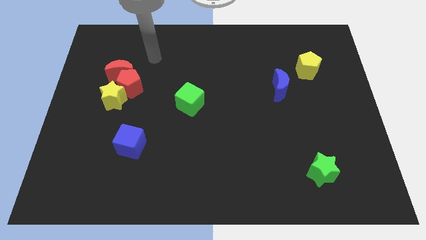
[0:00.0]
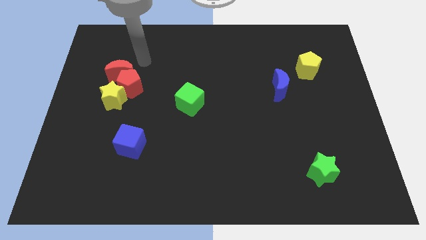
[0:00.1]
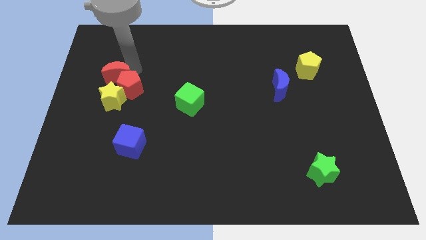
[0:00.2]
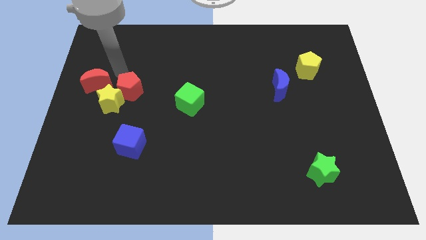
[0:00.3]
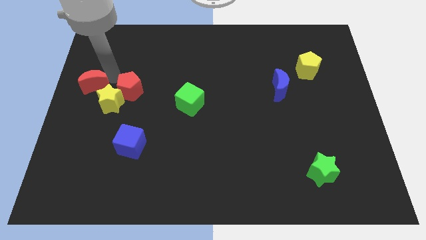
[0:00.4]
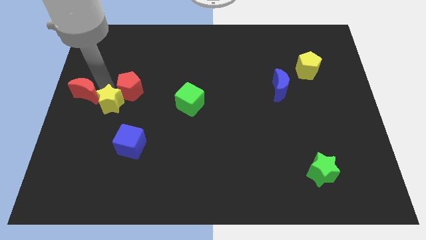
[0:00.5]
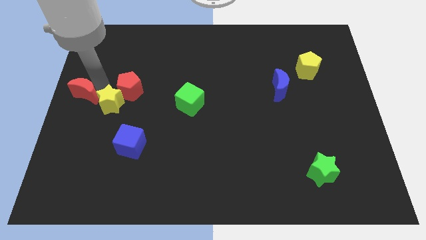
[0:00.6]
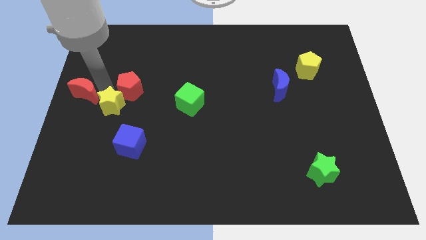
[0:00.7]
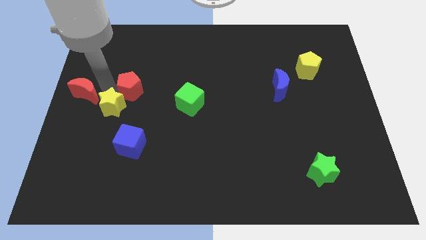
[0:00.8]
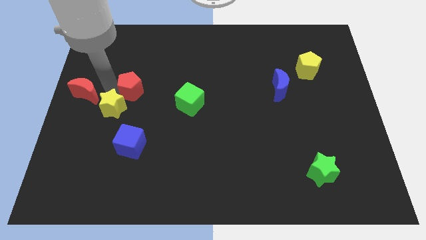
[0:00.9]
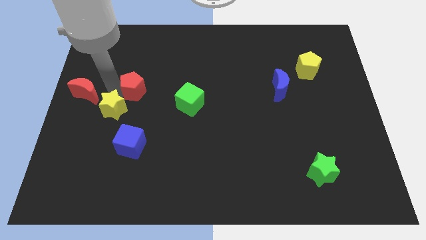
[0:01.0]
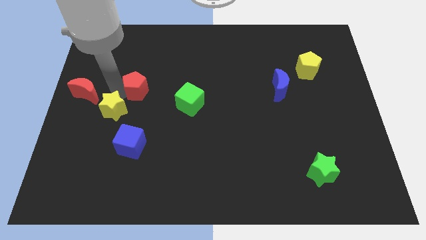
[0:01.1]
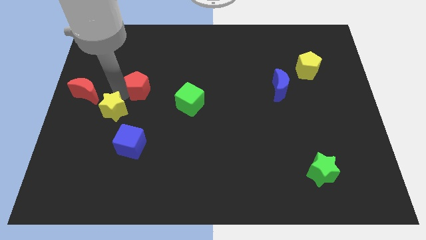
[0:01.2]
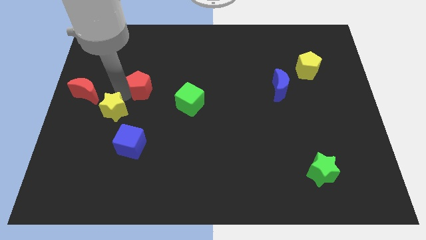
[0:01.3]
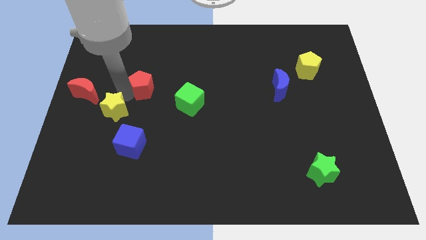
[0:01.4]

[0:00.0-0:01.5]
separate the red pentagon from the red moon and yellow star

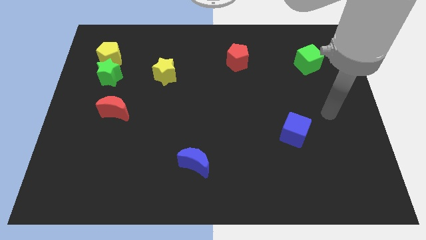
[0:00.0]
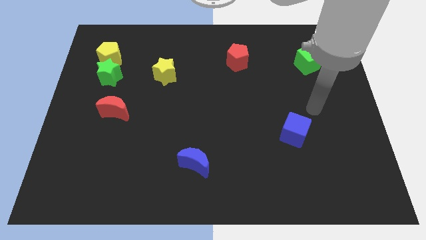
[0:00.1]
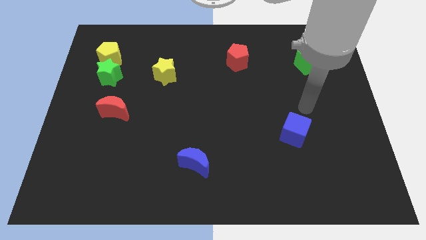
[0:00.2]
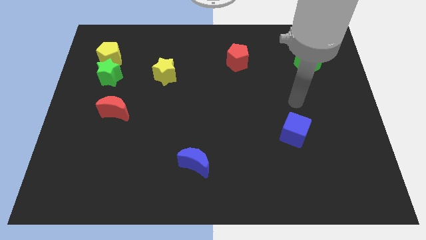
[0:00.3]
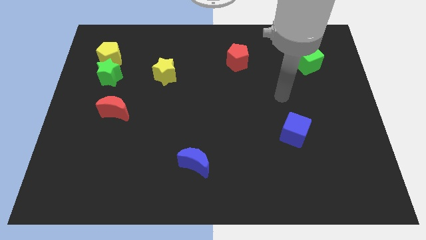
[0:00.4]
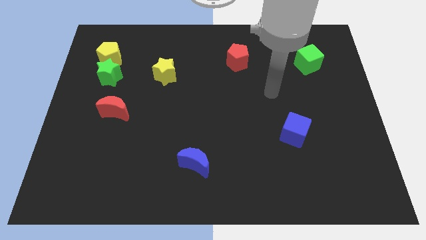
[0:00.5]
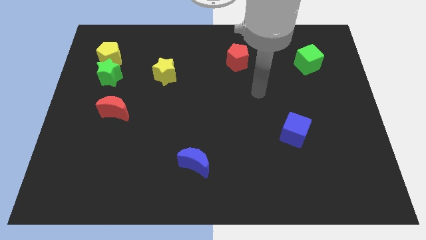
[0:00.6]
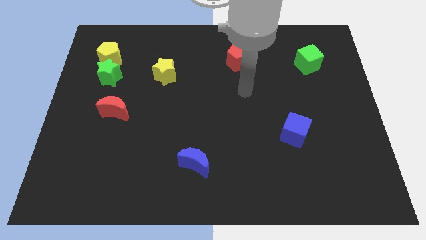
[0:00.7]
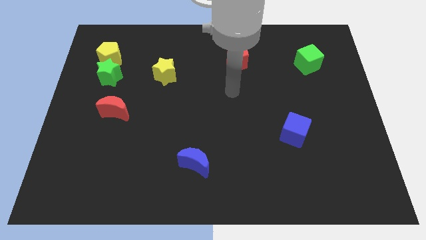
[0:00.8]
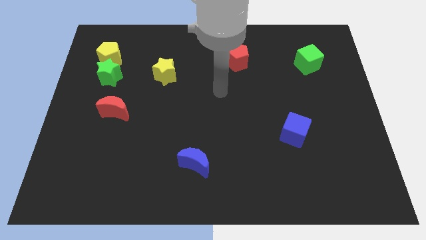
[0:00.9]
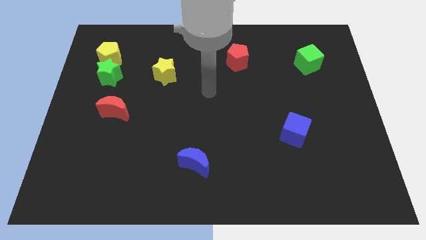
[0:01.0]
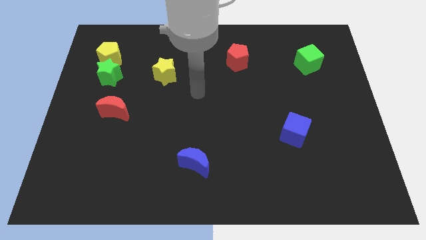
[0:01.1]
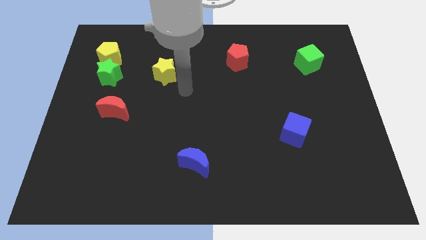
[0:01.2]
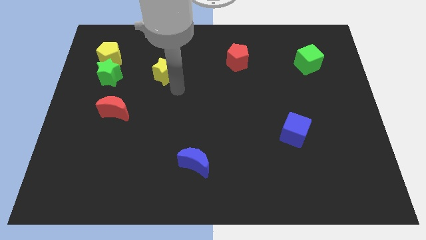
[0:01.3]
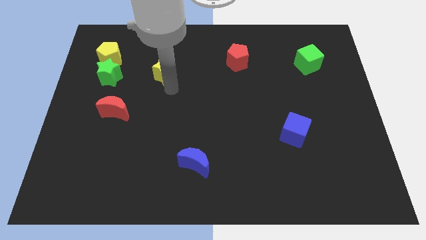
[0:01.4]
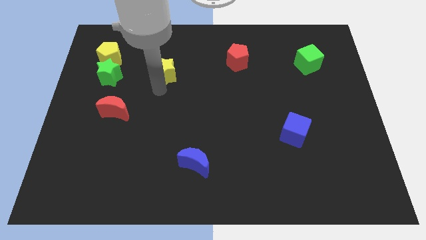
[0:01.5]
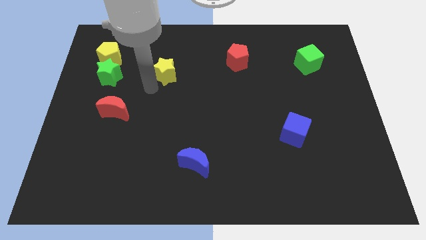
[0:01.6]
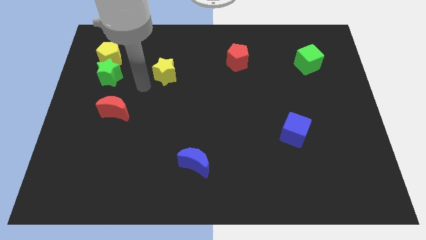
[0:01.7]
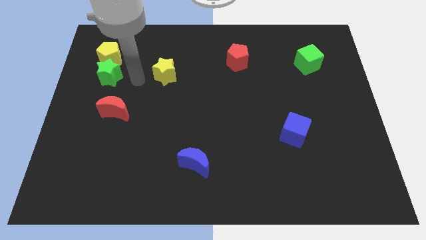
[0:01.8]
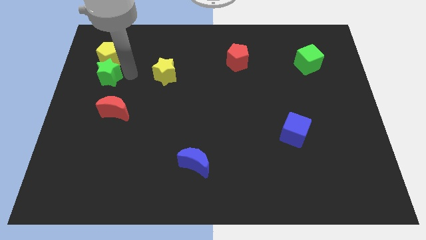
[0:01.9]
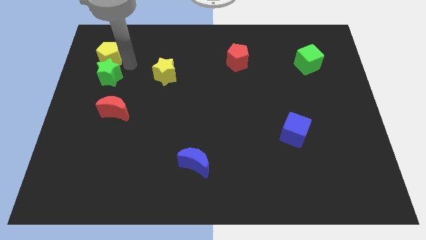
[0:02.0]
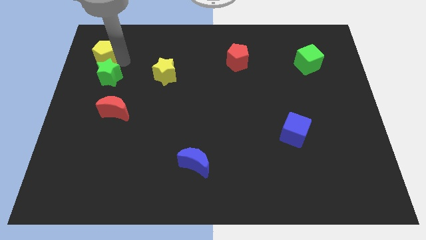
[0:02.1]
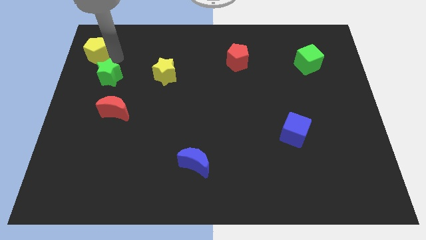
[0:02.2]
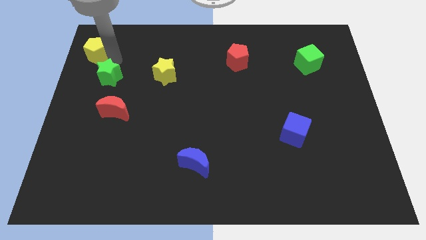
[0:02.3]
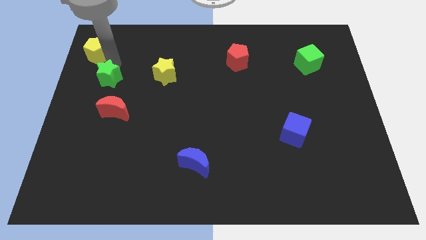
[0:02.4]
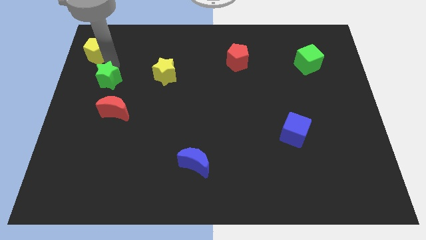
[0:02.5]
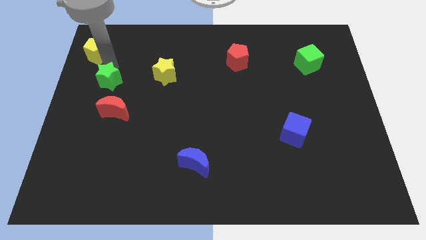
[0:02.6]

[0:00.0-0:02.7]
pull the green star apart from the yellow pentagon

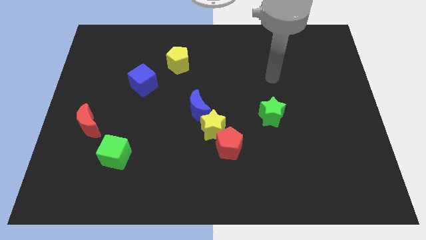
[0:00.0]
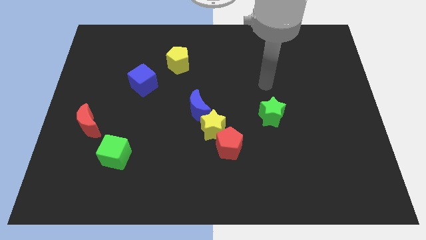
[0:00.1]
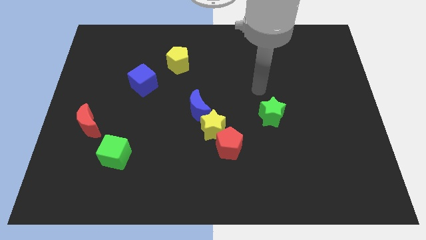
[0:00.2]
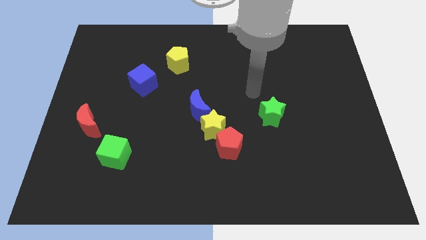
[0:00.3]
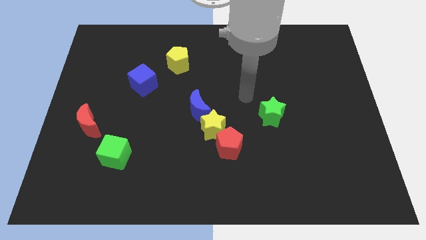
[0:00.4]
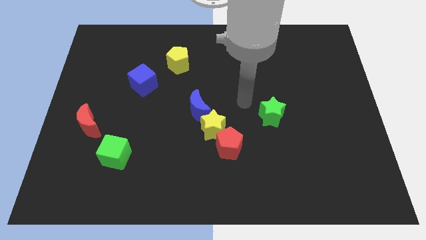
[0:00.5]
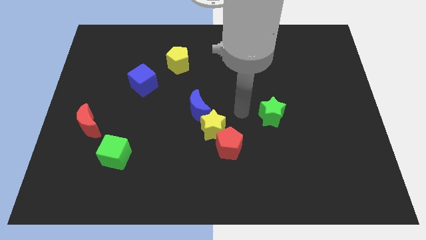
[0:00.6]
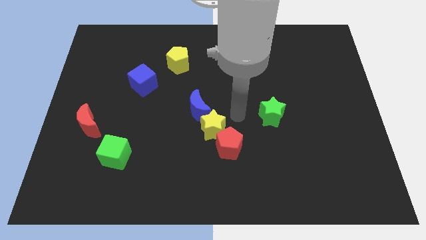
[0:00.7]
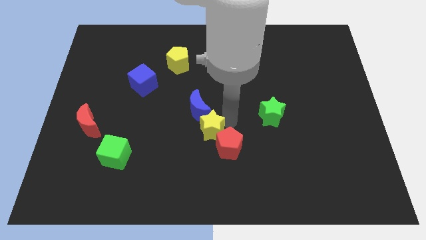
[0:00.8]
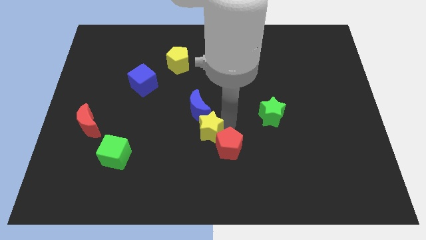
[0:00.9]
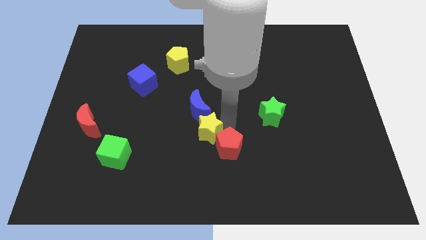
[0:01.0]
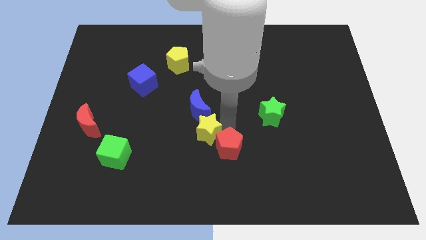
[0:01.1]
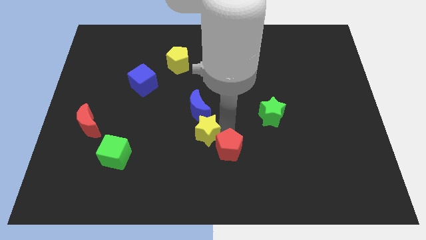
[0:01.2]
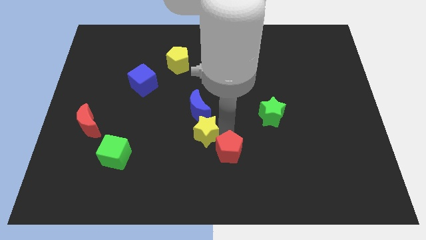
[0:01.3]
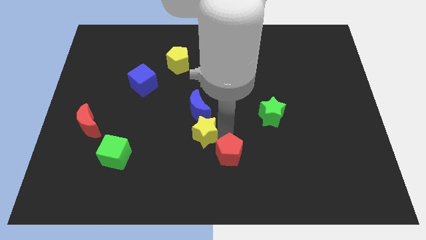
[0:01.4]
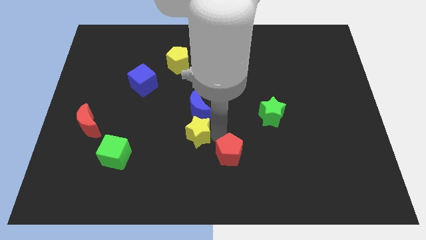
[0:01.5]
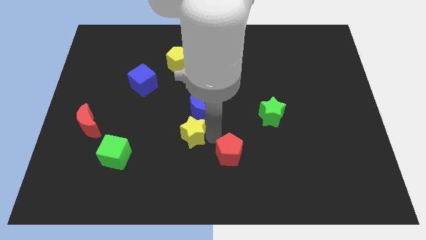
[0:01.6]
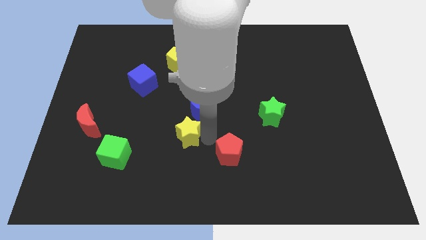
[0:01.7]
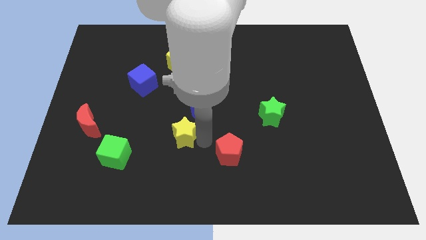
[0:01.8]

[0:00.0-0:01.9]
separate the red pentagon from the yellow star

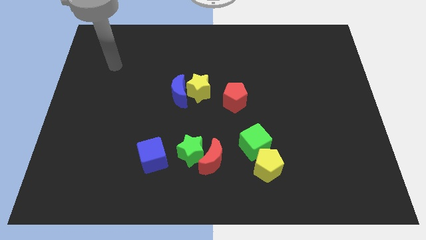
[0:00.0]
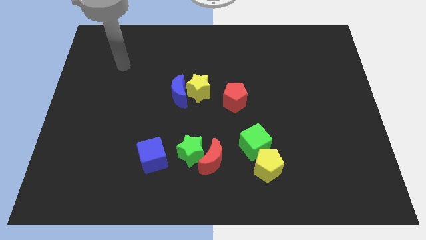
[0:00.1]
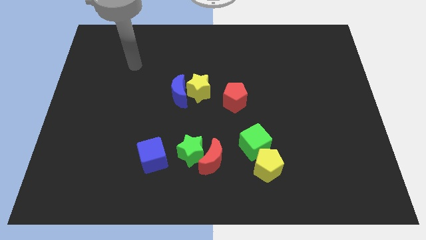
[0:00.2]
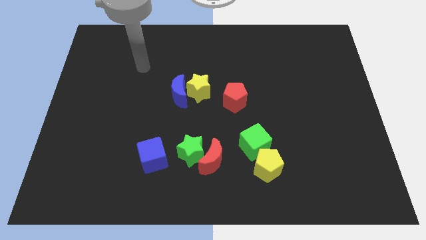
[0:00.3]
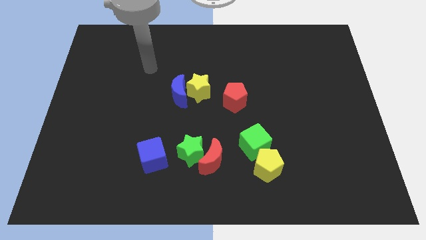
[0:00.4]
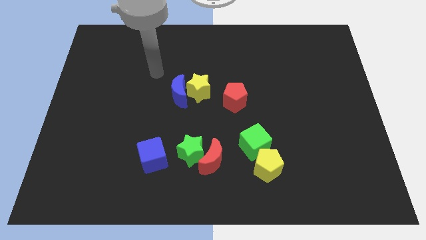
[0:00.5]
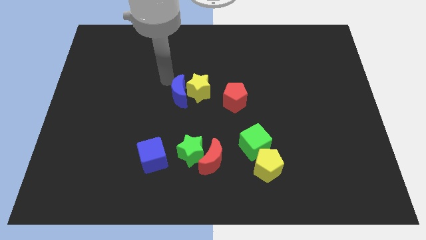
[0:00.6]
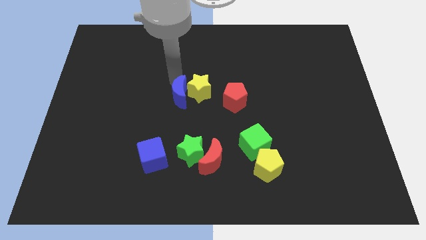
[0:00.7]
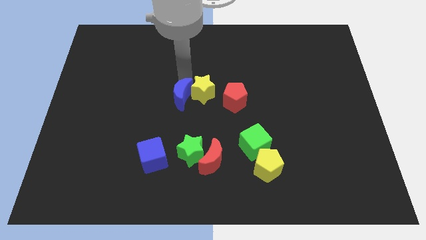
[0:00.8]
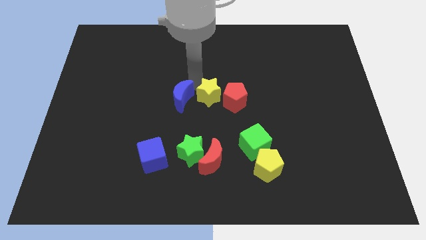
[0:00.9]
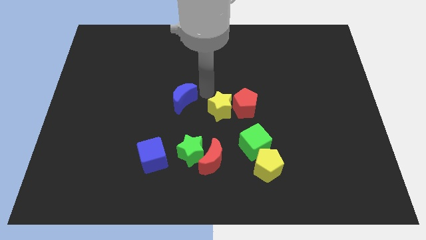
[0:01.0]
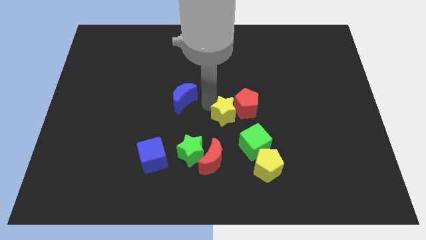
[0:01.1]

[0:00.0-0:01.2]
pull the blue moon apart from the yellow star

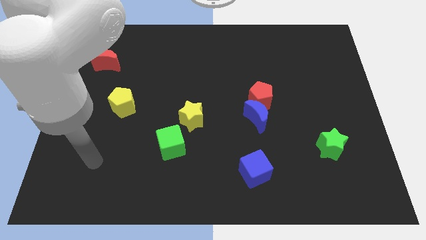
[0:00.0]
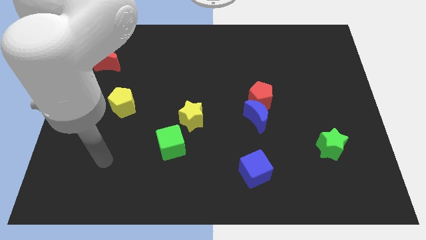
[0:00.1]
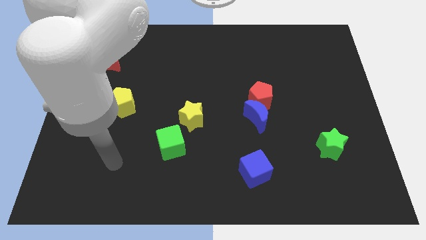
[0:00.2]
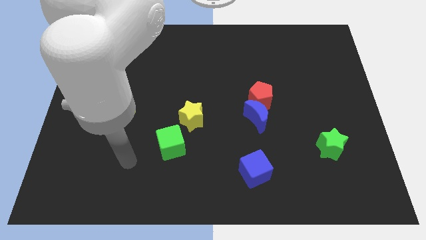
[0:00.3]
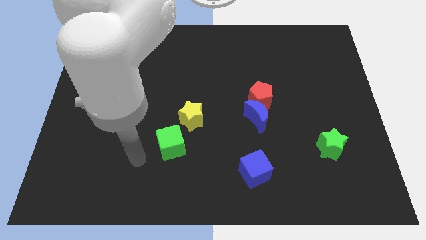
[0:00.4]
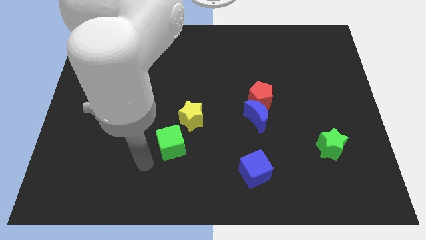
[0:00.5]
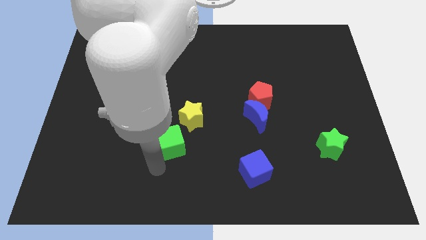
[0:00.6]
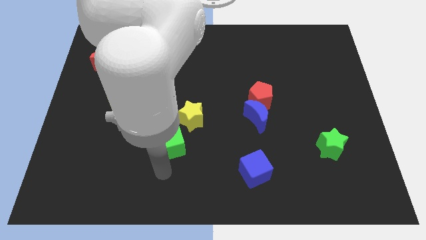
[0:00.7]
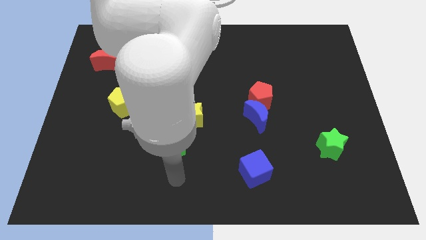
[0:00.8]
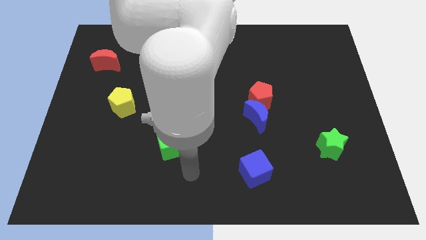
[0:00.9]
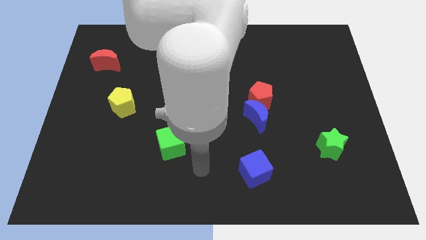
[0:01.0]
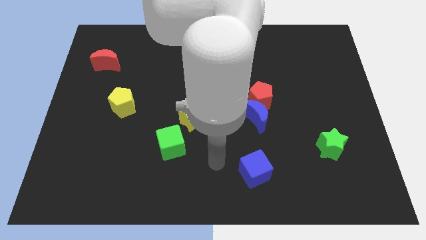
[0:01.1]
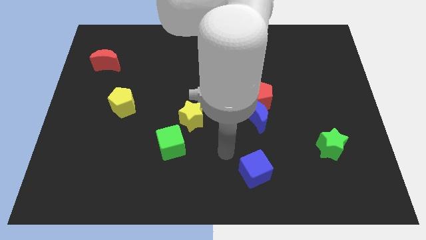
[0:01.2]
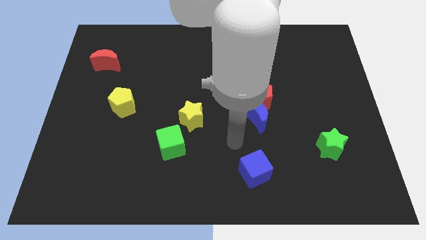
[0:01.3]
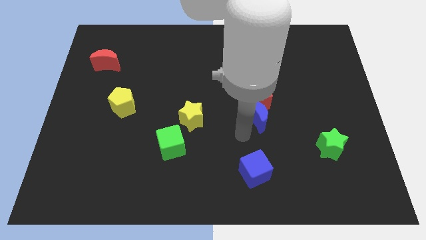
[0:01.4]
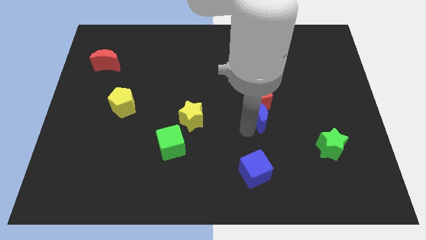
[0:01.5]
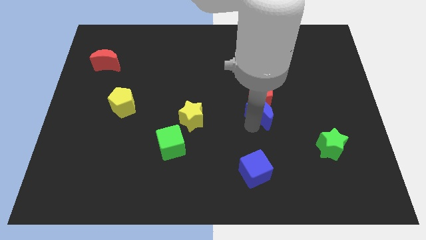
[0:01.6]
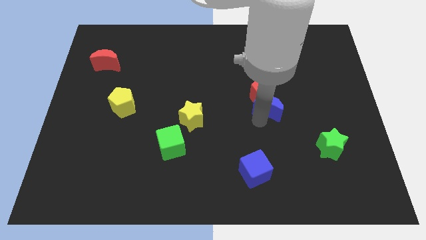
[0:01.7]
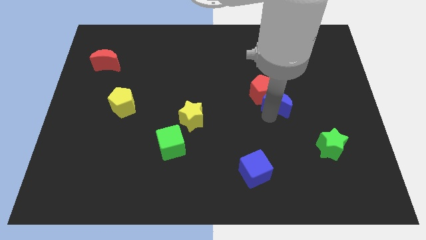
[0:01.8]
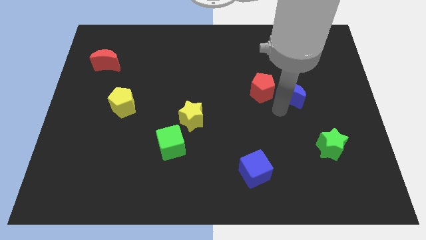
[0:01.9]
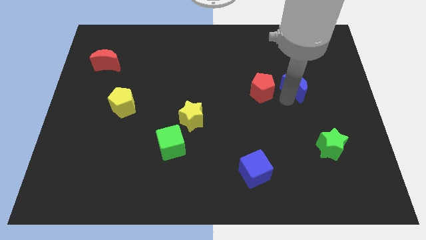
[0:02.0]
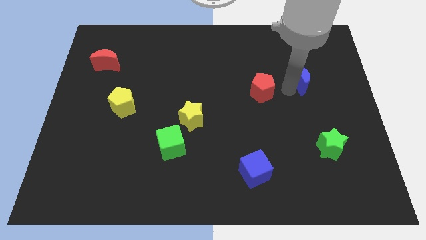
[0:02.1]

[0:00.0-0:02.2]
move the red pentagon away from the blue moon
